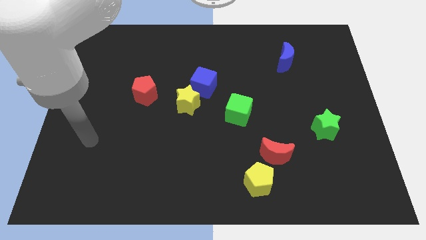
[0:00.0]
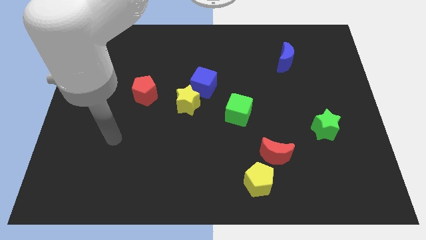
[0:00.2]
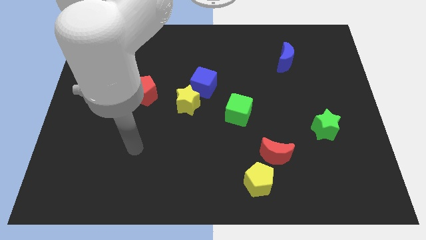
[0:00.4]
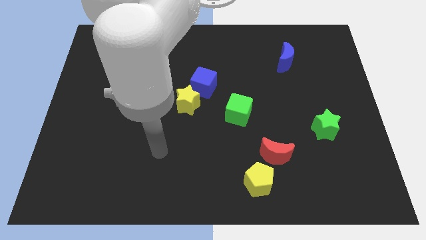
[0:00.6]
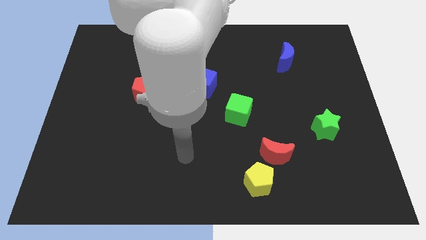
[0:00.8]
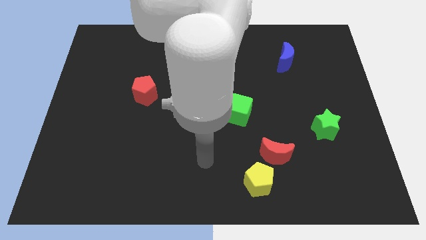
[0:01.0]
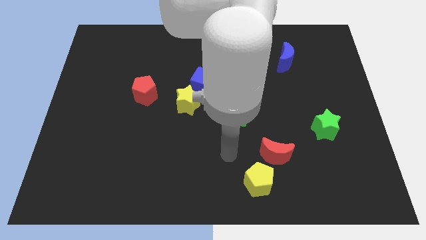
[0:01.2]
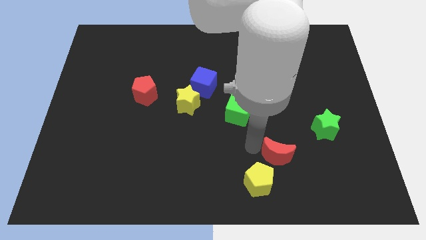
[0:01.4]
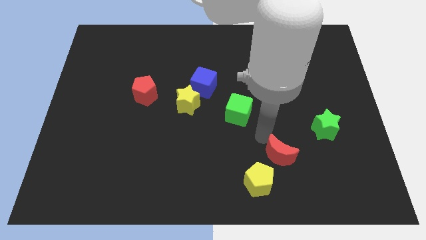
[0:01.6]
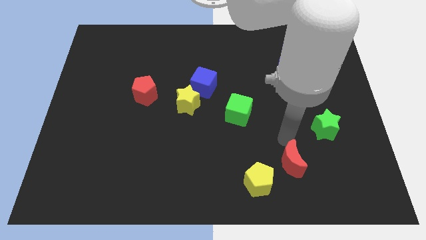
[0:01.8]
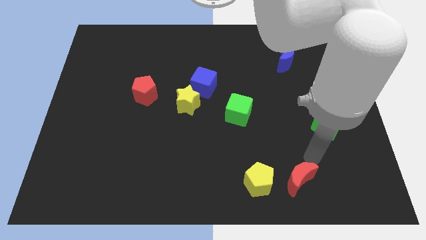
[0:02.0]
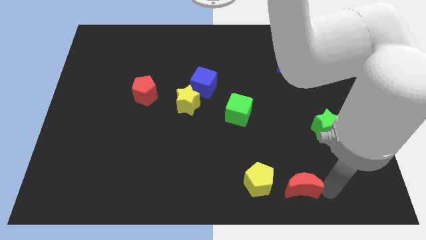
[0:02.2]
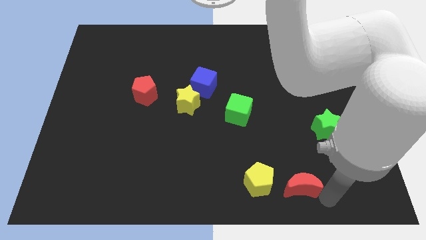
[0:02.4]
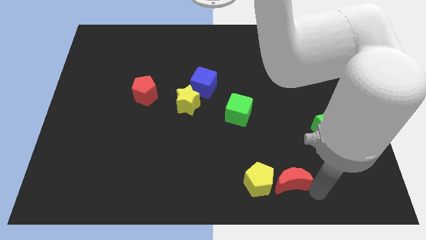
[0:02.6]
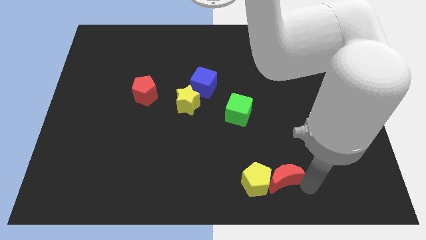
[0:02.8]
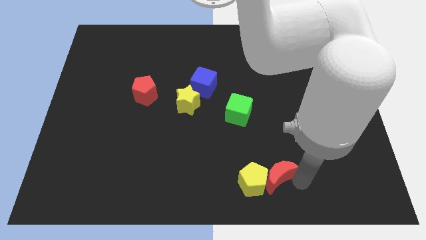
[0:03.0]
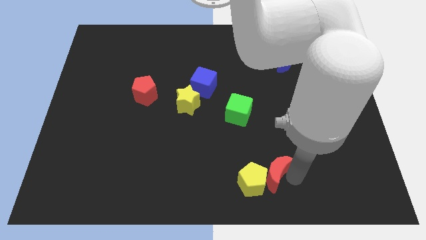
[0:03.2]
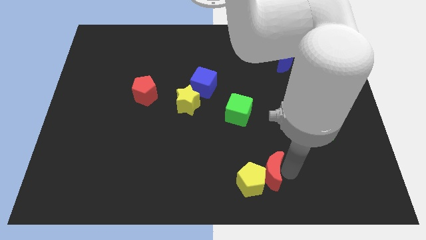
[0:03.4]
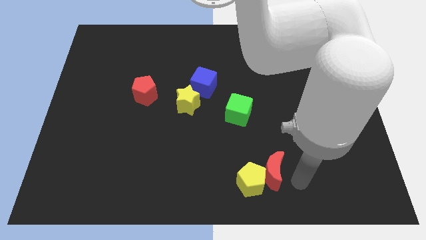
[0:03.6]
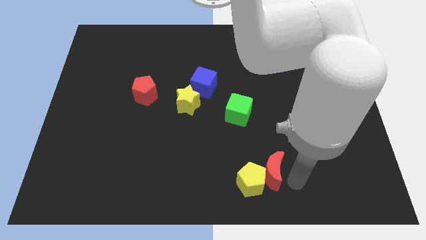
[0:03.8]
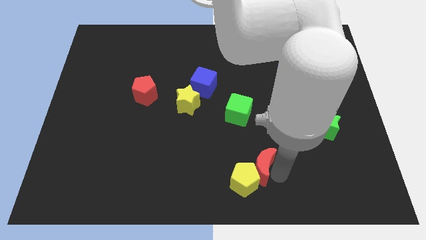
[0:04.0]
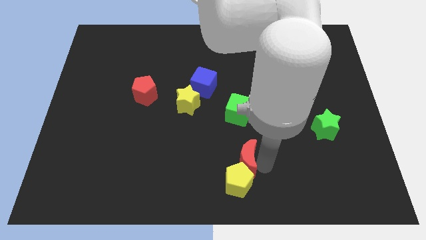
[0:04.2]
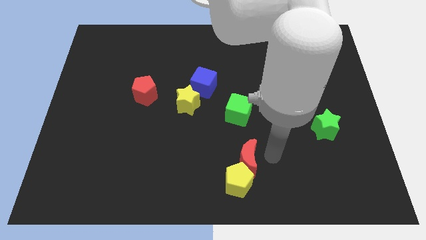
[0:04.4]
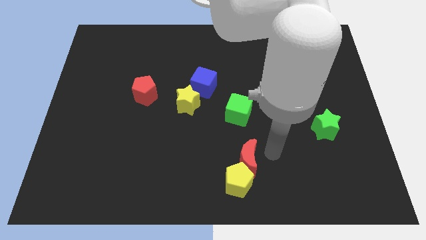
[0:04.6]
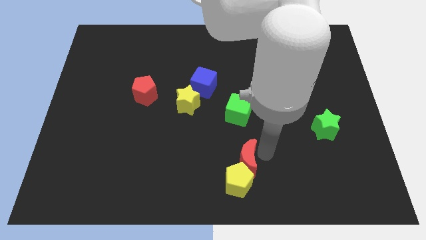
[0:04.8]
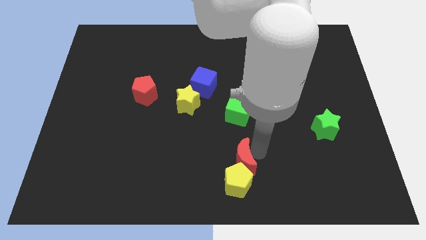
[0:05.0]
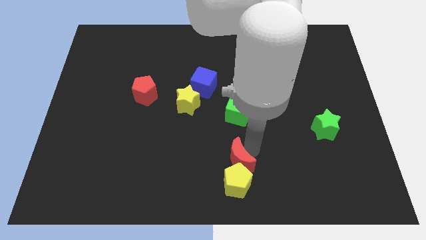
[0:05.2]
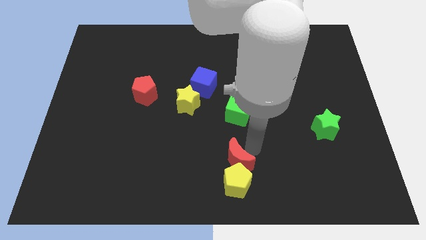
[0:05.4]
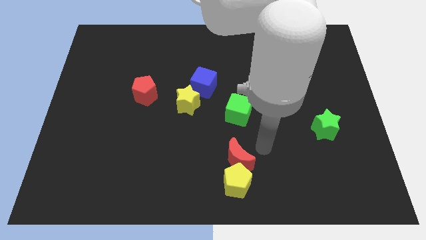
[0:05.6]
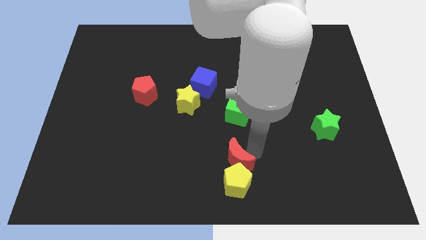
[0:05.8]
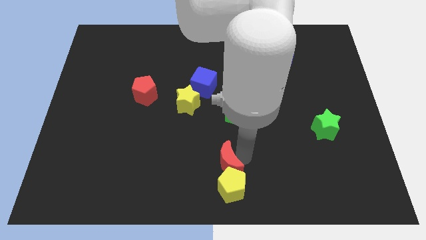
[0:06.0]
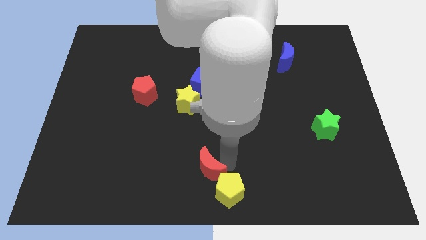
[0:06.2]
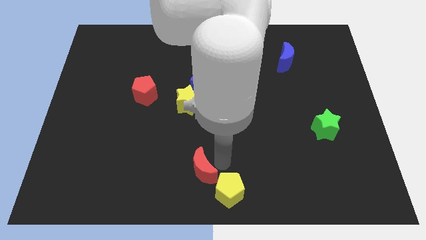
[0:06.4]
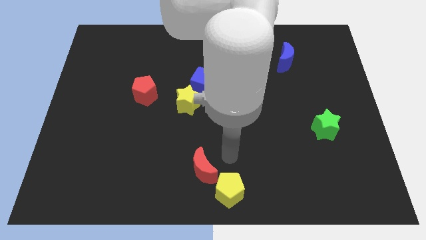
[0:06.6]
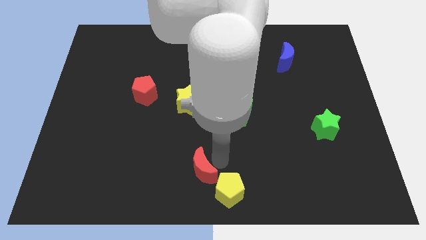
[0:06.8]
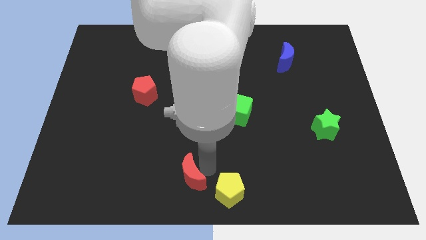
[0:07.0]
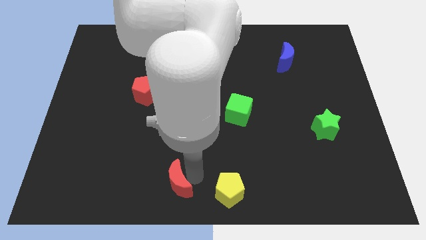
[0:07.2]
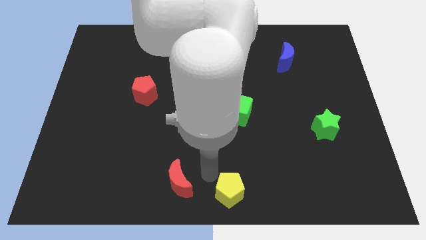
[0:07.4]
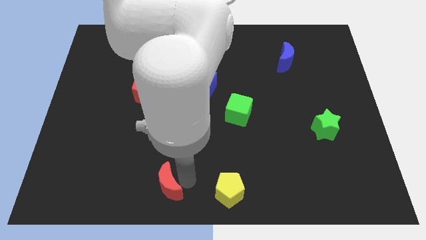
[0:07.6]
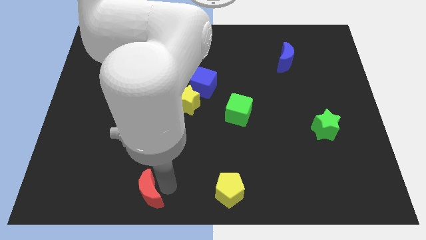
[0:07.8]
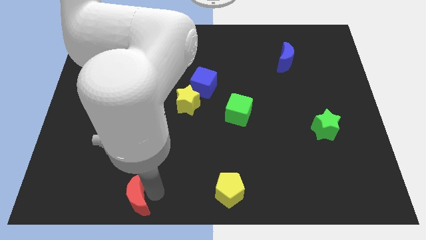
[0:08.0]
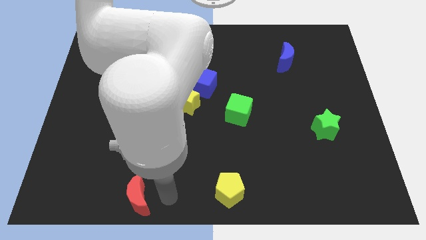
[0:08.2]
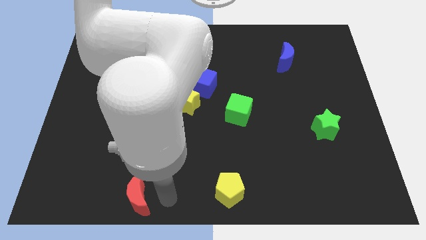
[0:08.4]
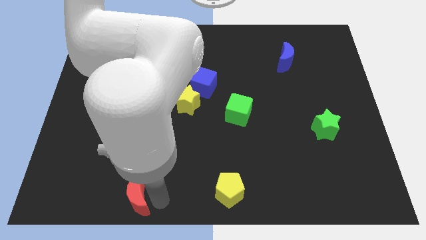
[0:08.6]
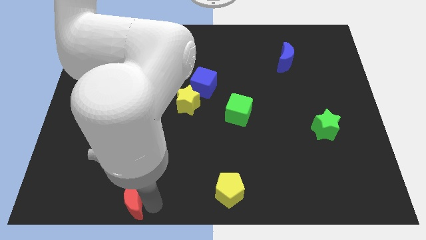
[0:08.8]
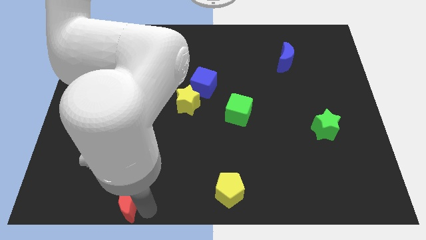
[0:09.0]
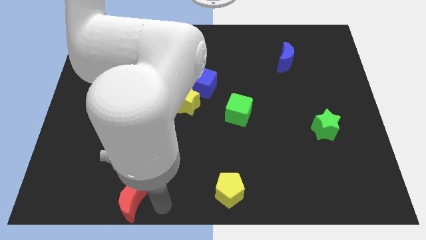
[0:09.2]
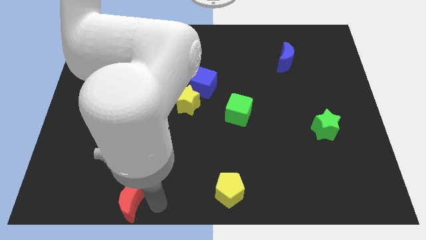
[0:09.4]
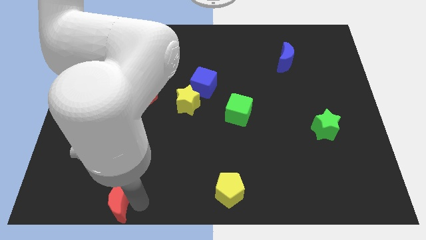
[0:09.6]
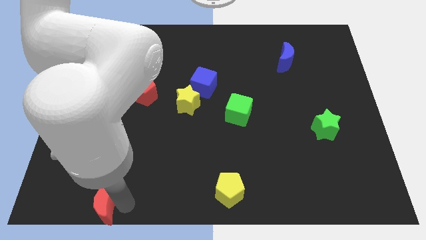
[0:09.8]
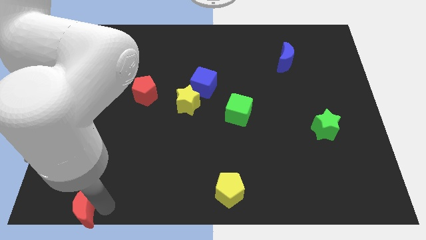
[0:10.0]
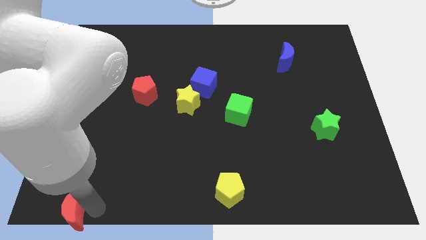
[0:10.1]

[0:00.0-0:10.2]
push the red moon to the bottom left of the board

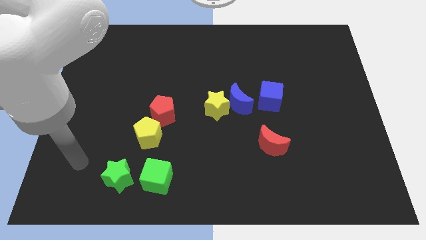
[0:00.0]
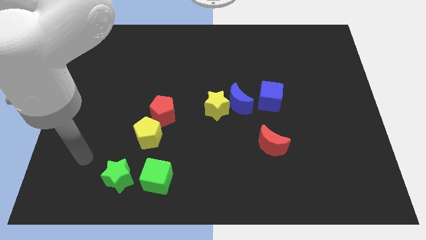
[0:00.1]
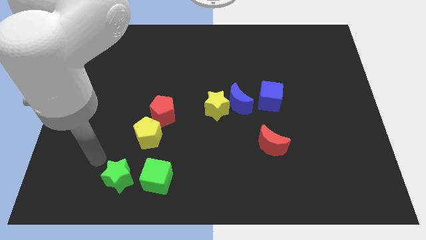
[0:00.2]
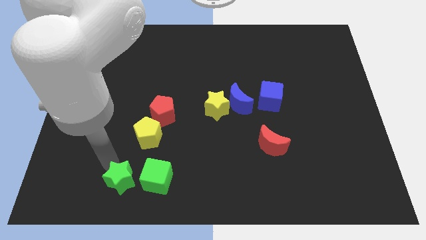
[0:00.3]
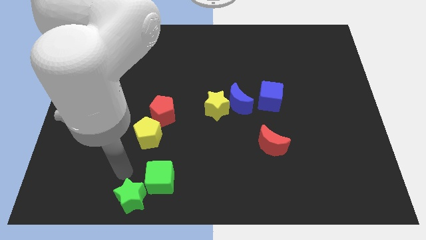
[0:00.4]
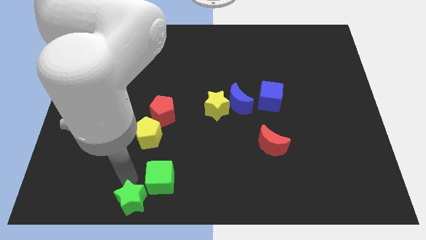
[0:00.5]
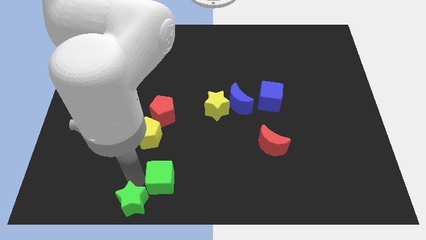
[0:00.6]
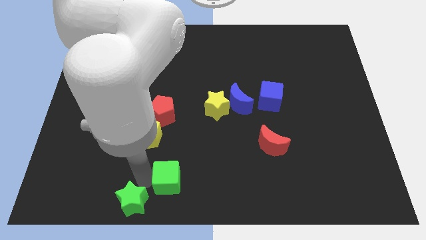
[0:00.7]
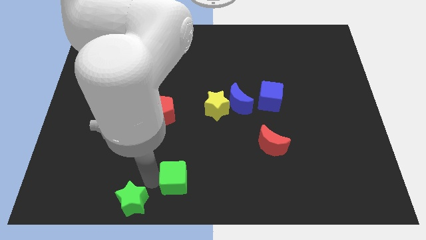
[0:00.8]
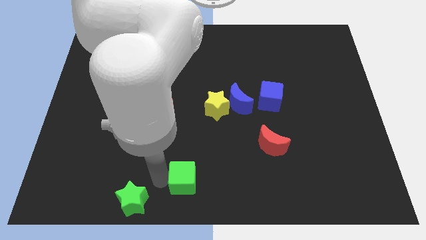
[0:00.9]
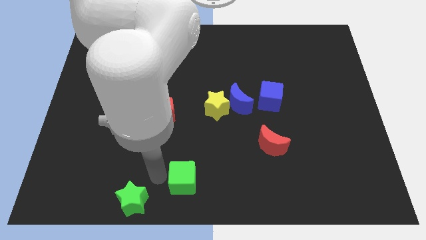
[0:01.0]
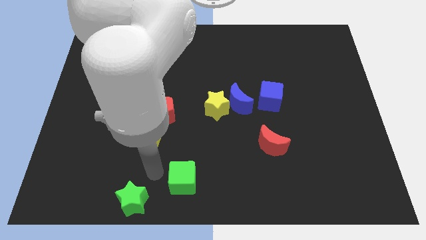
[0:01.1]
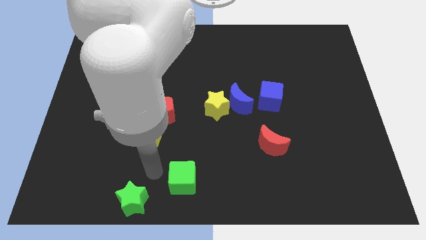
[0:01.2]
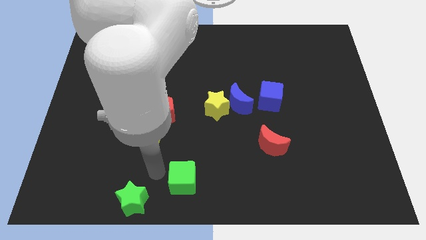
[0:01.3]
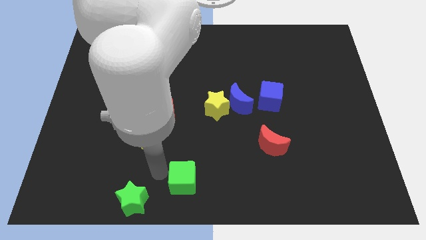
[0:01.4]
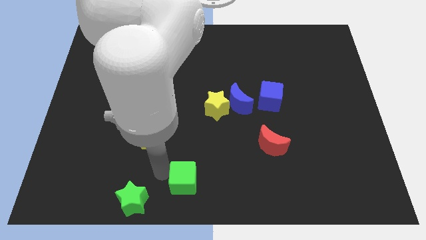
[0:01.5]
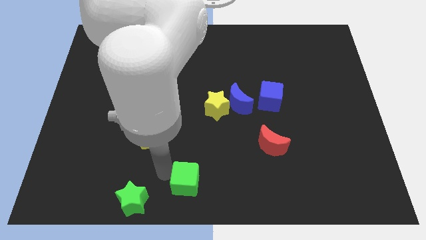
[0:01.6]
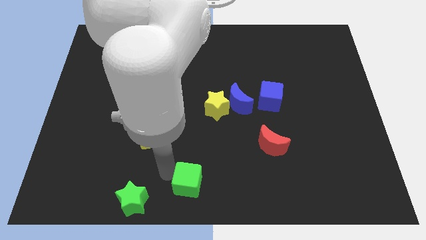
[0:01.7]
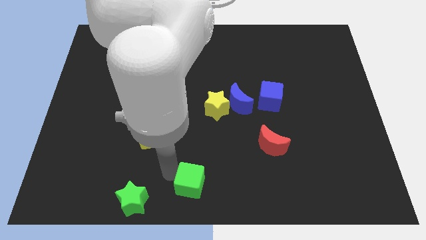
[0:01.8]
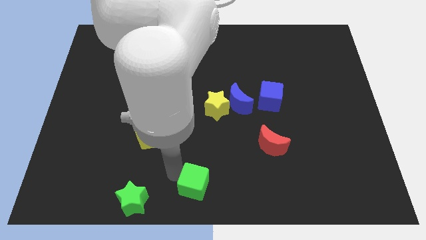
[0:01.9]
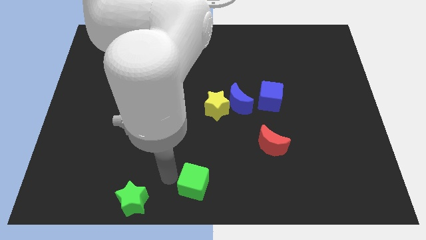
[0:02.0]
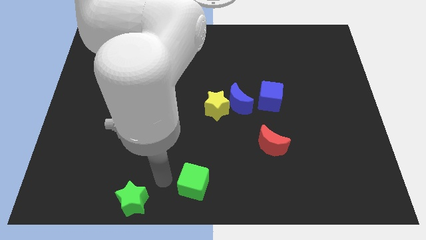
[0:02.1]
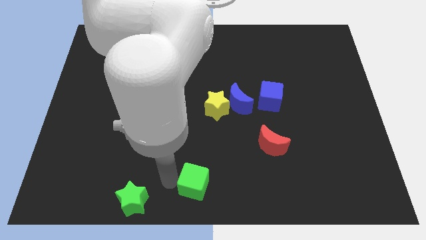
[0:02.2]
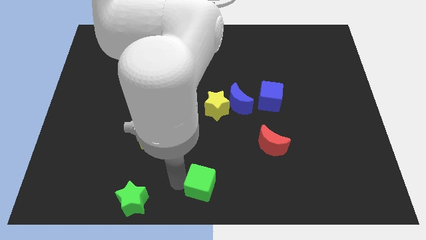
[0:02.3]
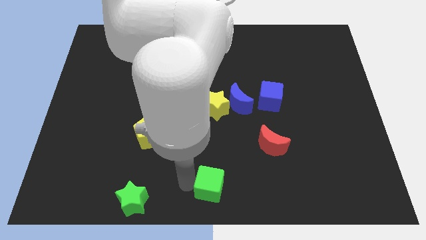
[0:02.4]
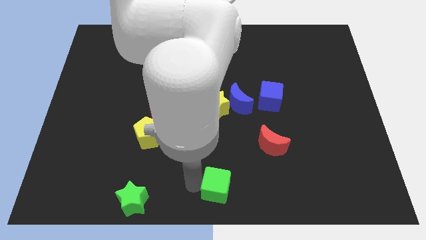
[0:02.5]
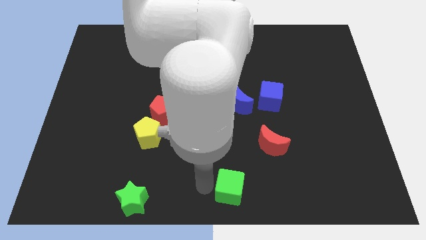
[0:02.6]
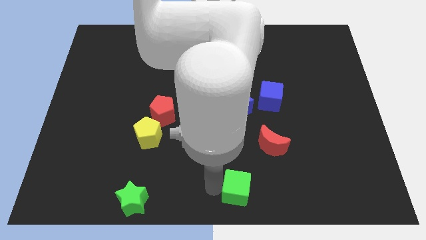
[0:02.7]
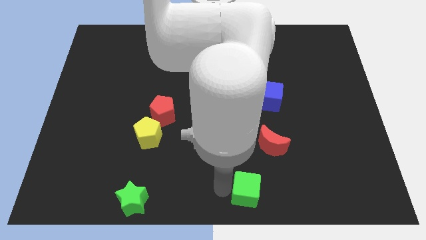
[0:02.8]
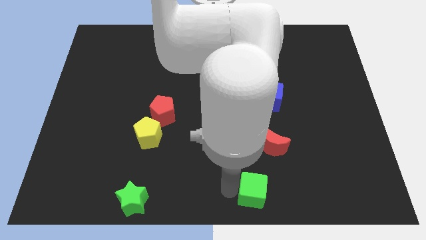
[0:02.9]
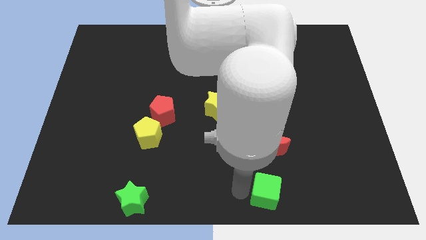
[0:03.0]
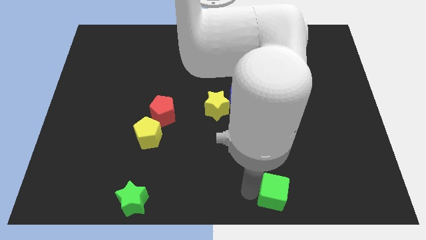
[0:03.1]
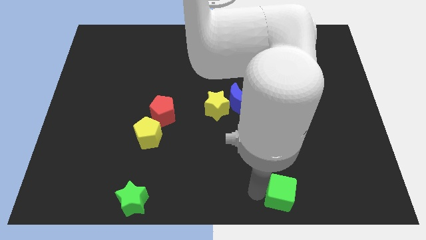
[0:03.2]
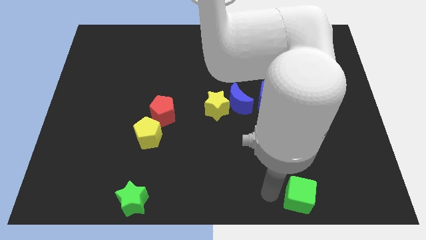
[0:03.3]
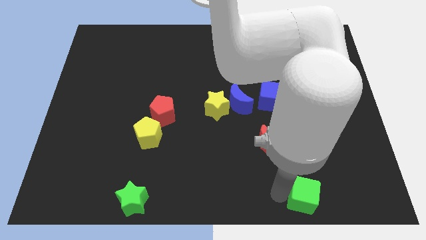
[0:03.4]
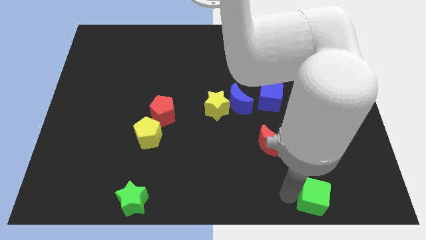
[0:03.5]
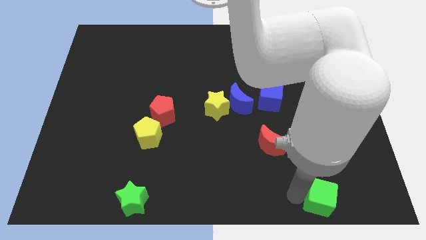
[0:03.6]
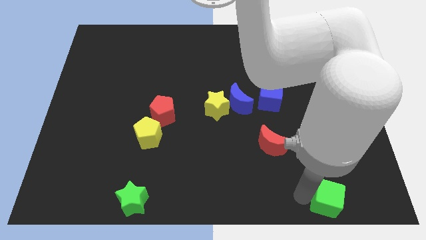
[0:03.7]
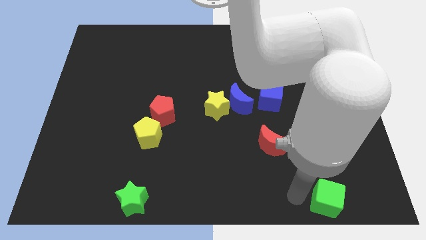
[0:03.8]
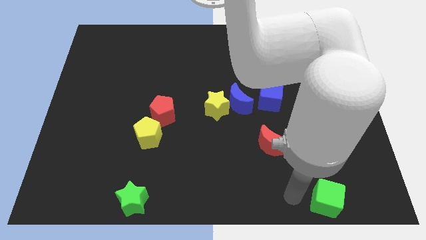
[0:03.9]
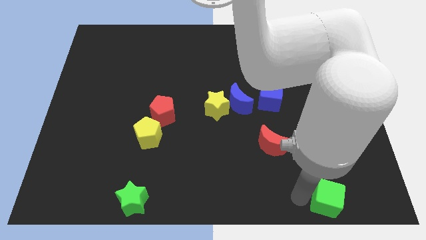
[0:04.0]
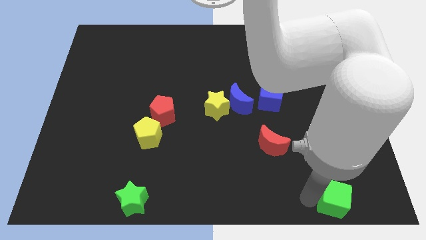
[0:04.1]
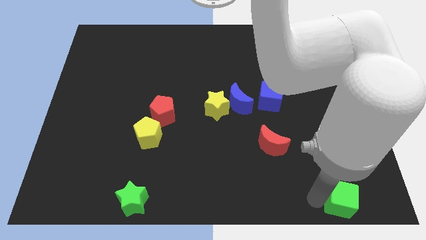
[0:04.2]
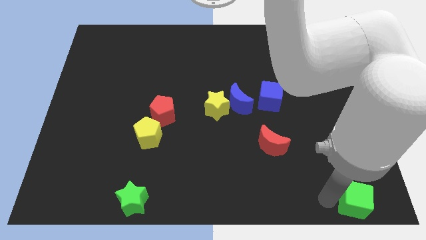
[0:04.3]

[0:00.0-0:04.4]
move the green cube to the bottom right of the board
